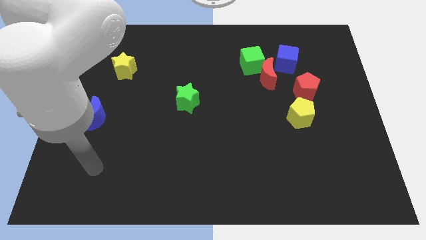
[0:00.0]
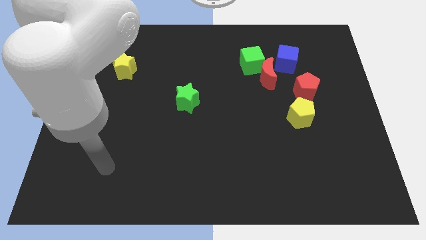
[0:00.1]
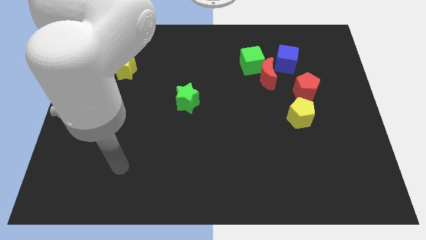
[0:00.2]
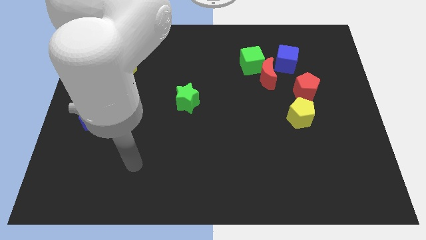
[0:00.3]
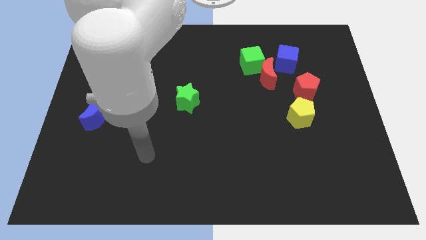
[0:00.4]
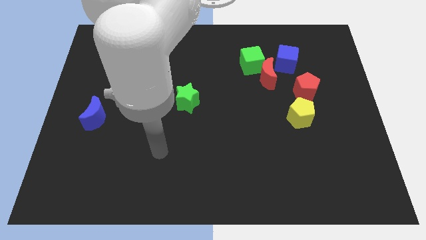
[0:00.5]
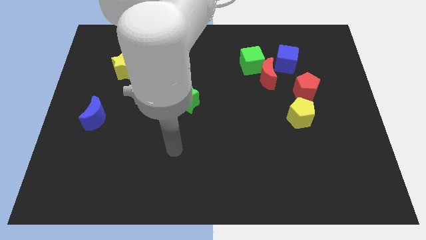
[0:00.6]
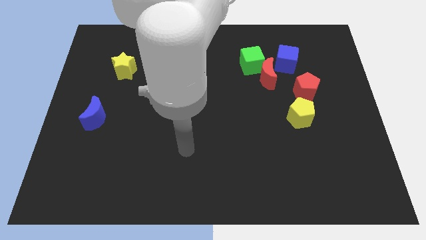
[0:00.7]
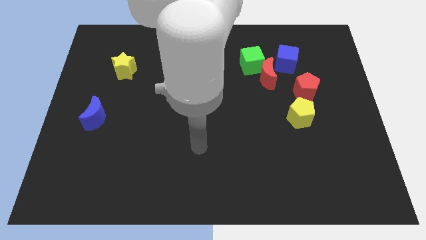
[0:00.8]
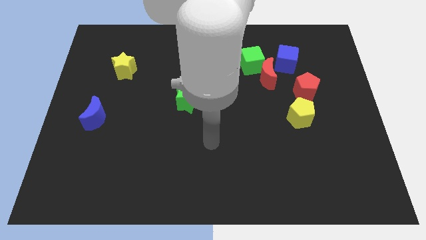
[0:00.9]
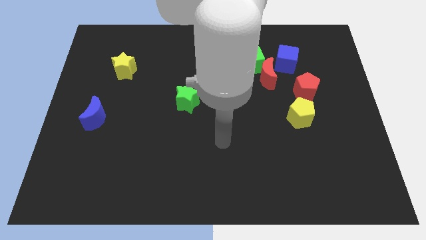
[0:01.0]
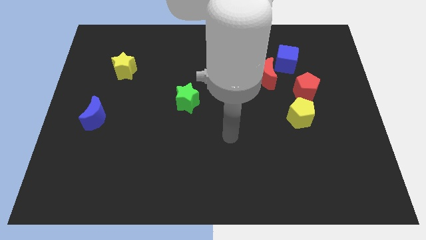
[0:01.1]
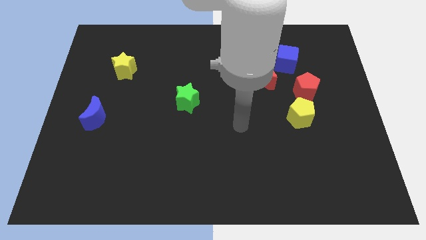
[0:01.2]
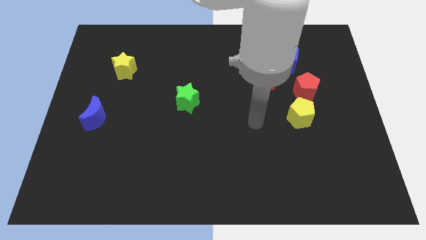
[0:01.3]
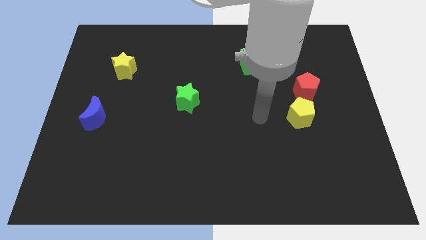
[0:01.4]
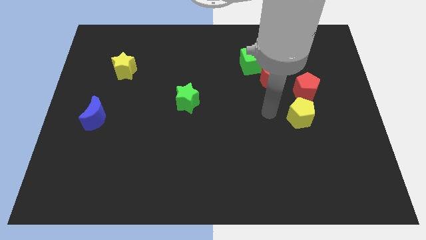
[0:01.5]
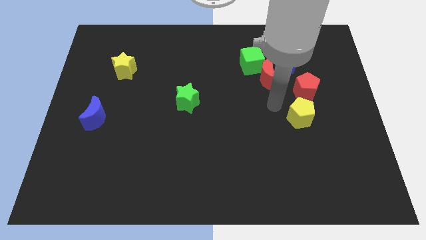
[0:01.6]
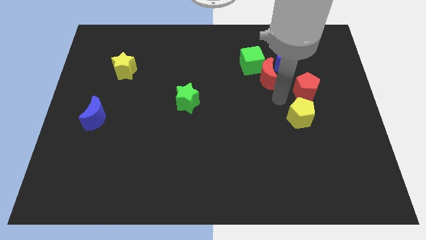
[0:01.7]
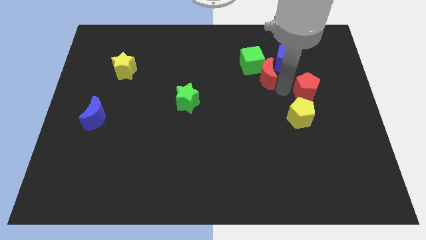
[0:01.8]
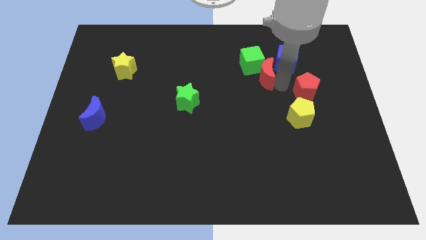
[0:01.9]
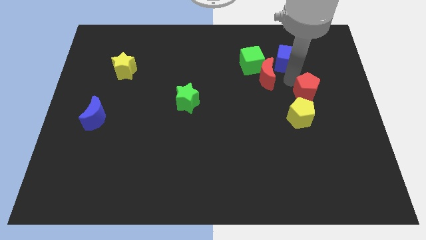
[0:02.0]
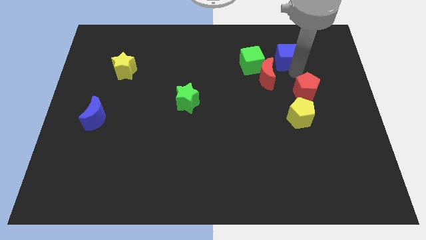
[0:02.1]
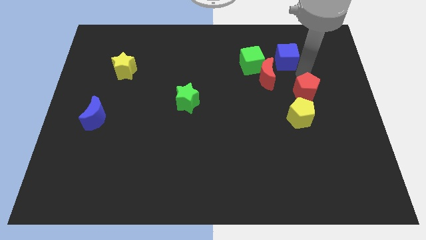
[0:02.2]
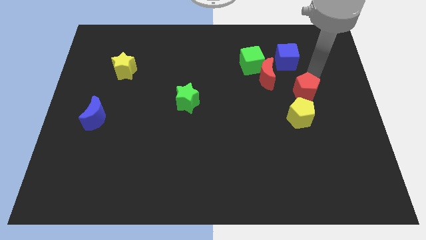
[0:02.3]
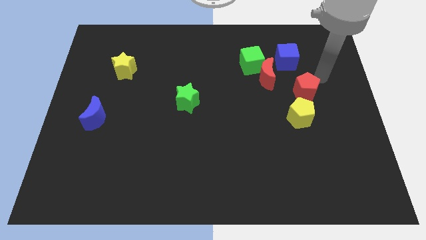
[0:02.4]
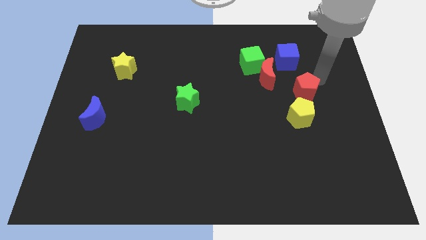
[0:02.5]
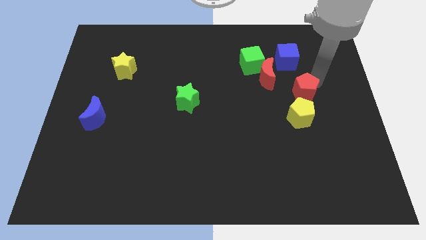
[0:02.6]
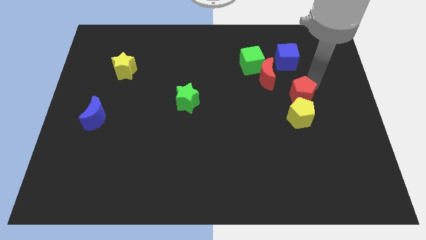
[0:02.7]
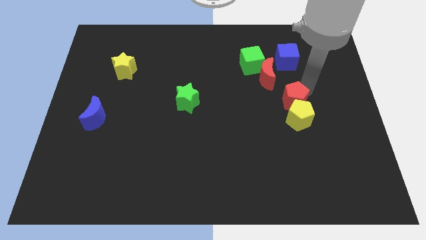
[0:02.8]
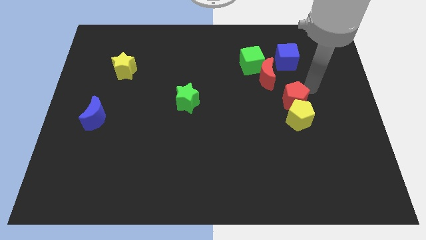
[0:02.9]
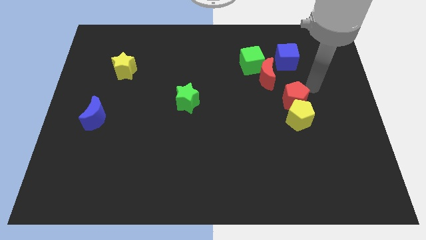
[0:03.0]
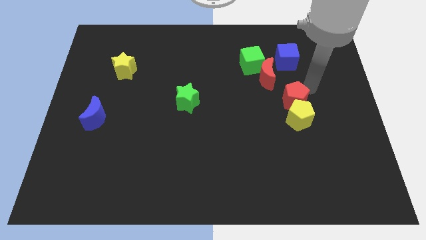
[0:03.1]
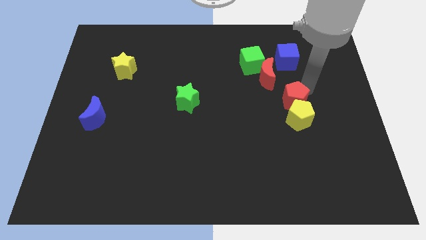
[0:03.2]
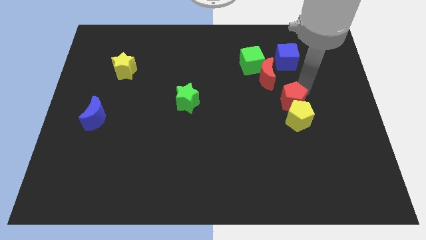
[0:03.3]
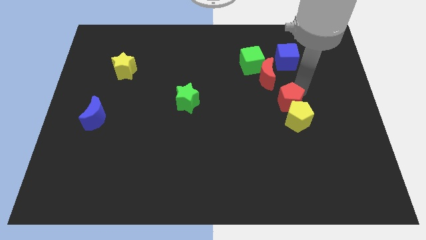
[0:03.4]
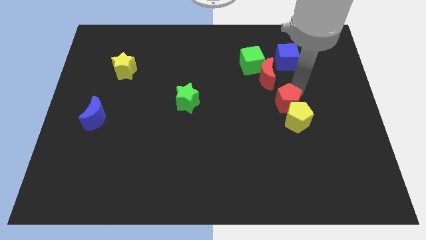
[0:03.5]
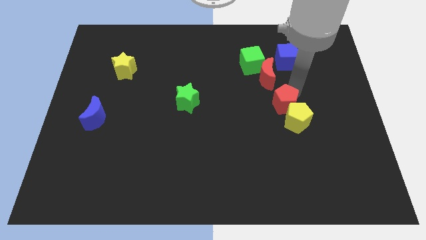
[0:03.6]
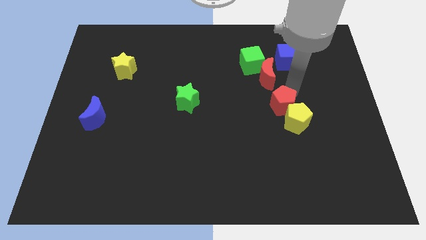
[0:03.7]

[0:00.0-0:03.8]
slightly slide the red pentagon down and left diagonally

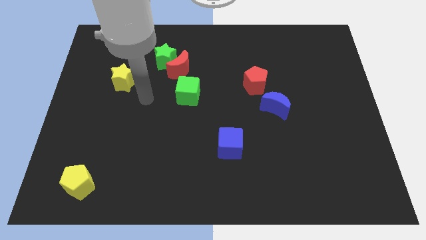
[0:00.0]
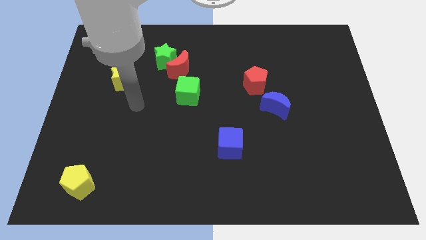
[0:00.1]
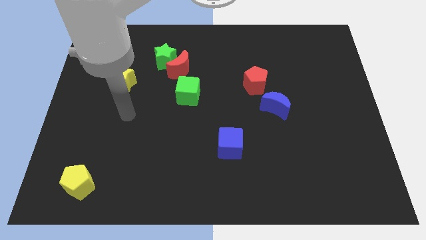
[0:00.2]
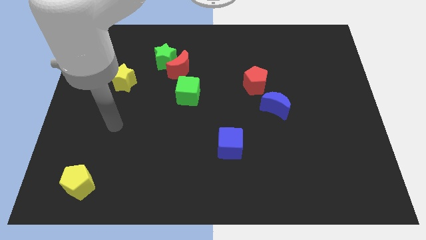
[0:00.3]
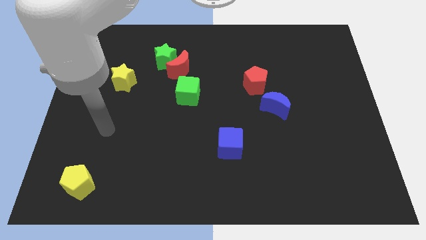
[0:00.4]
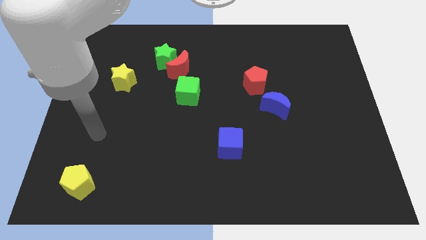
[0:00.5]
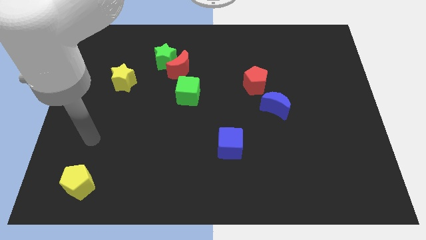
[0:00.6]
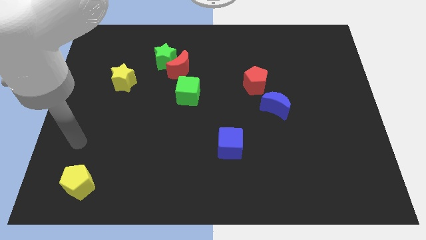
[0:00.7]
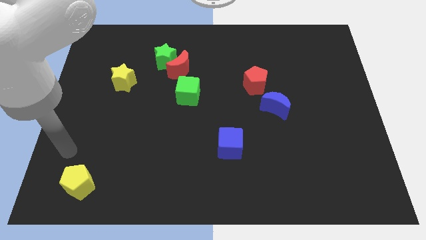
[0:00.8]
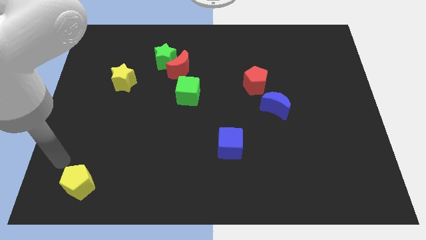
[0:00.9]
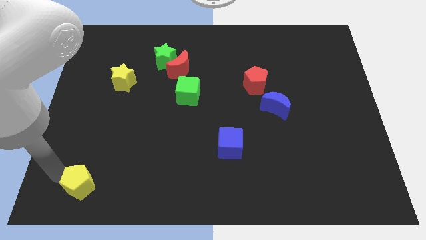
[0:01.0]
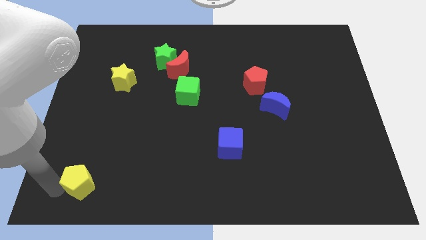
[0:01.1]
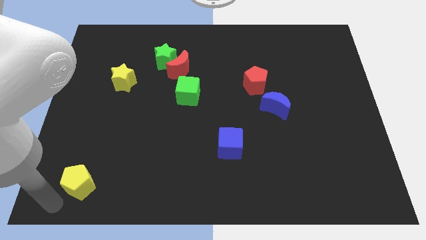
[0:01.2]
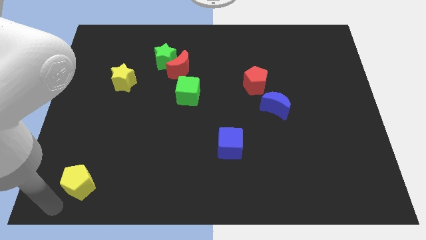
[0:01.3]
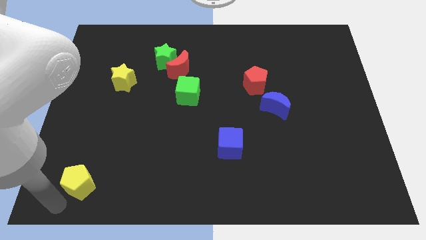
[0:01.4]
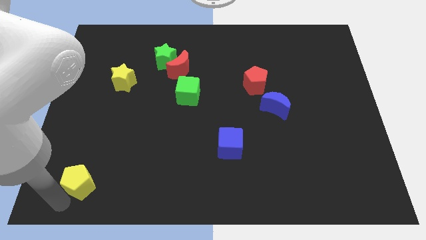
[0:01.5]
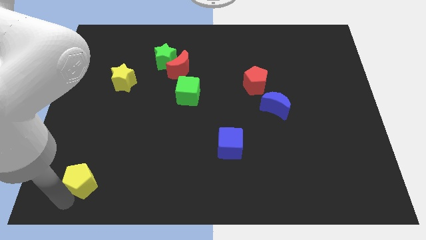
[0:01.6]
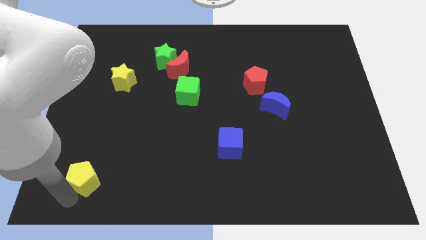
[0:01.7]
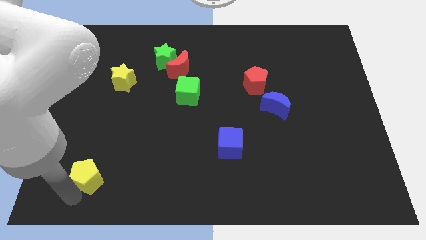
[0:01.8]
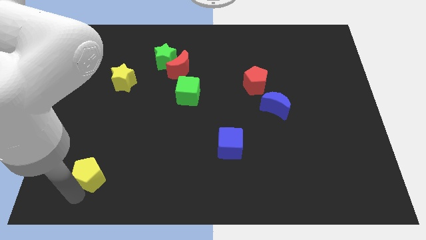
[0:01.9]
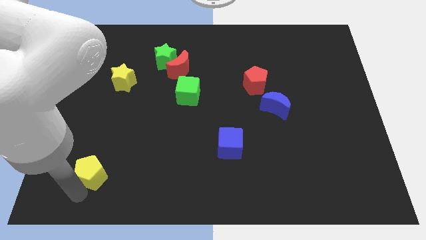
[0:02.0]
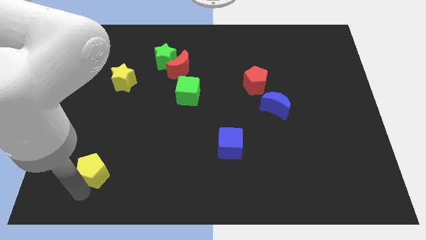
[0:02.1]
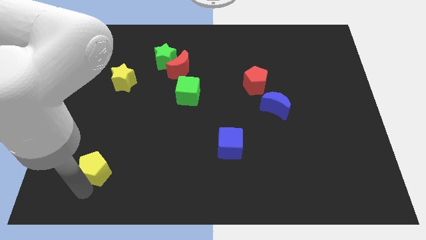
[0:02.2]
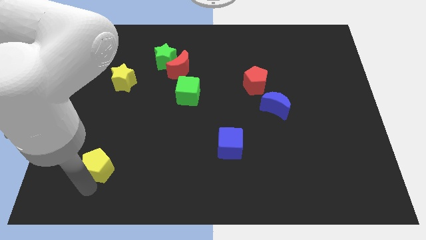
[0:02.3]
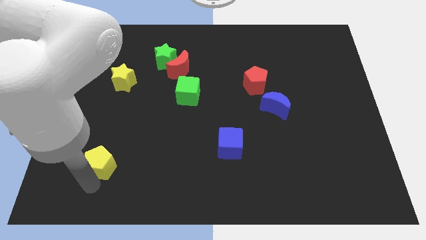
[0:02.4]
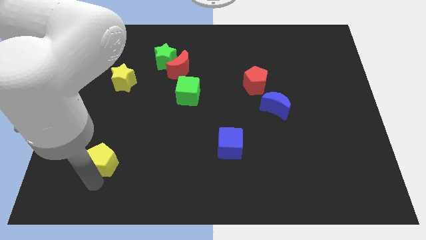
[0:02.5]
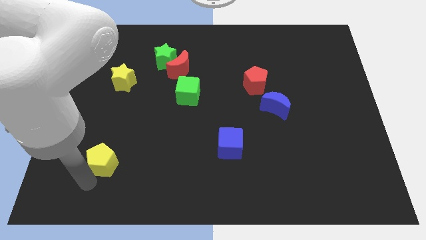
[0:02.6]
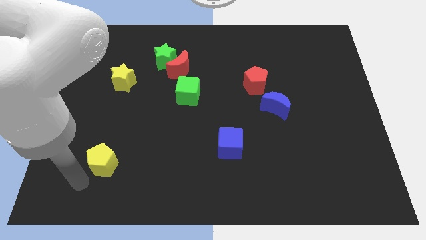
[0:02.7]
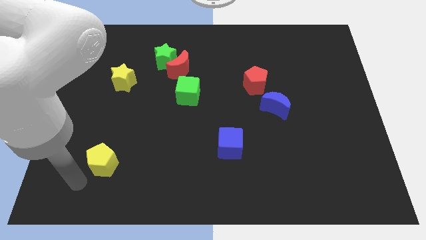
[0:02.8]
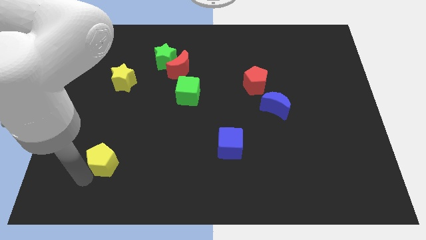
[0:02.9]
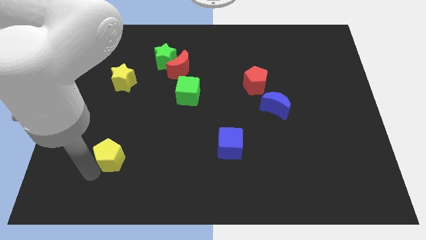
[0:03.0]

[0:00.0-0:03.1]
slightly move the yellow pentagon up and to the right diagonally

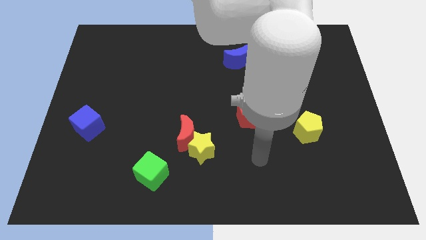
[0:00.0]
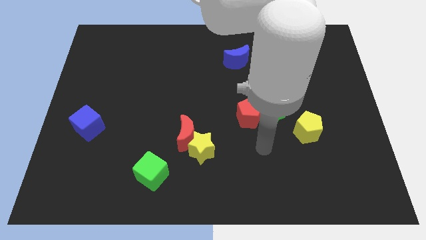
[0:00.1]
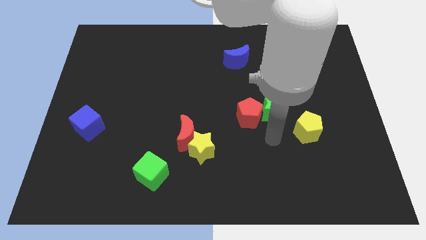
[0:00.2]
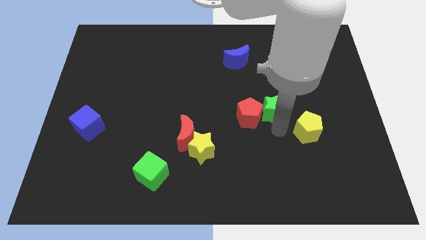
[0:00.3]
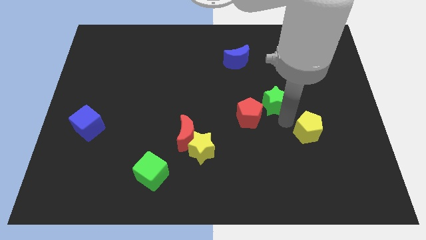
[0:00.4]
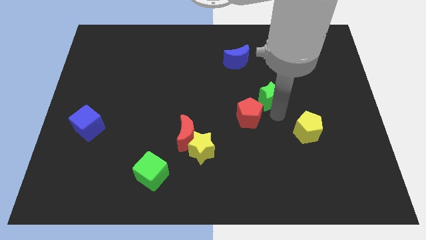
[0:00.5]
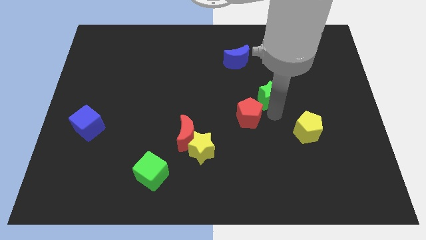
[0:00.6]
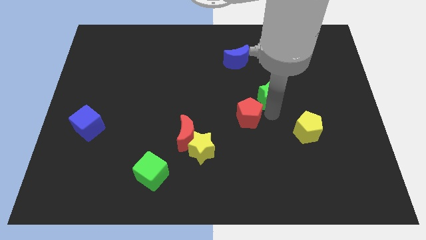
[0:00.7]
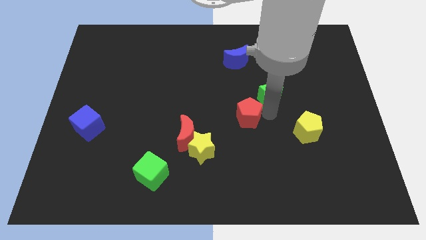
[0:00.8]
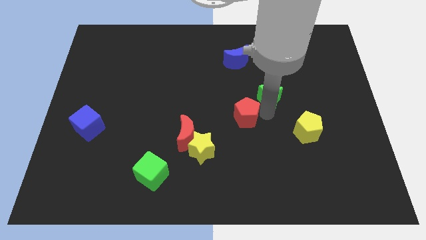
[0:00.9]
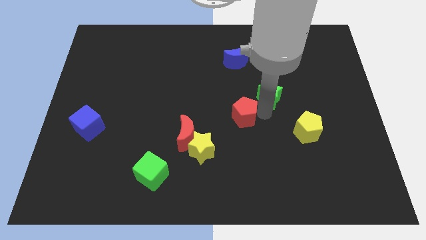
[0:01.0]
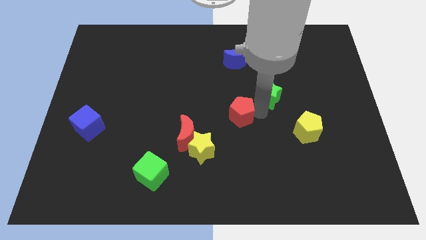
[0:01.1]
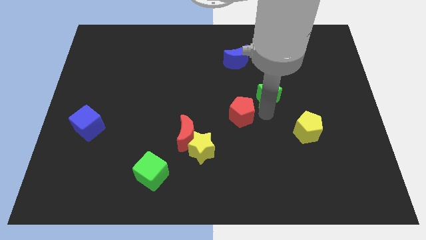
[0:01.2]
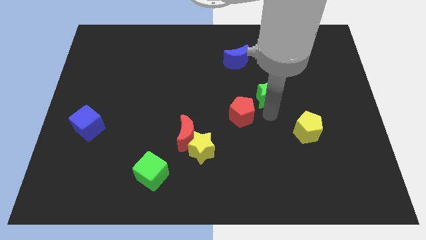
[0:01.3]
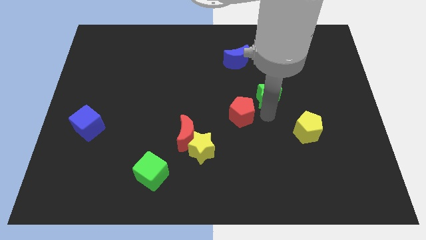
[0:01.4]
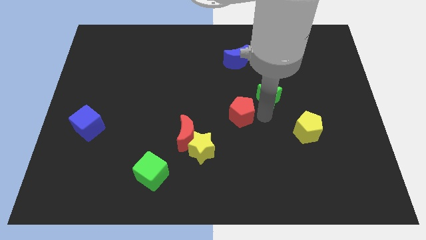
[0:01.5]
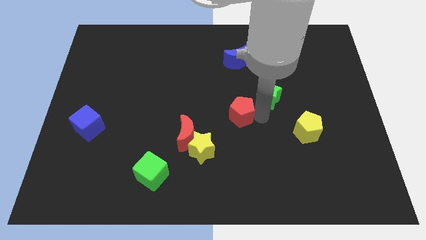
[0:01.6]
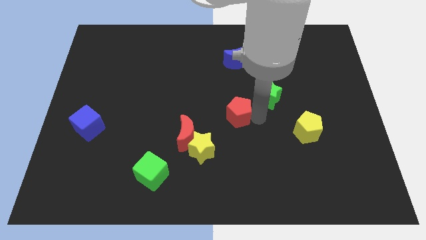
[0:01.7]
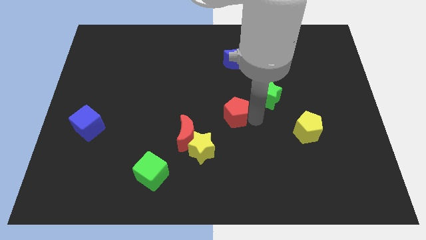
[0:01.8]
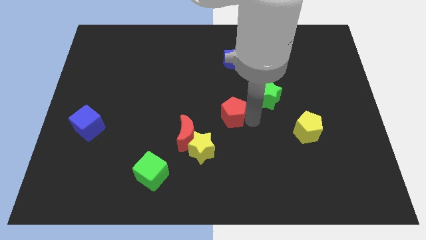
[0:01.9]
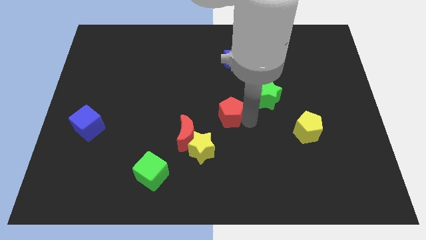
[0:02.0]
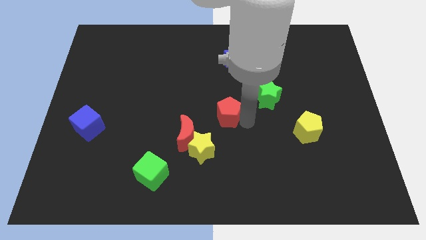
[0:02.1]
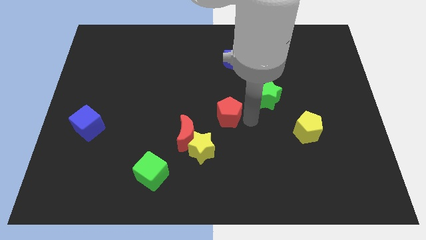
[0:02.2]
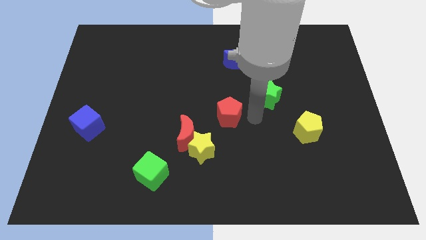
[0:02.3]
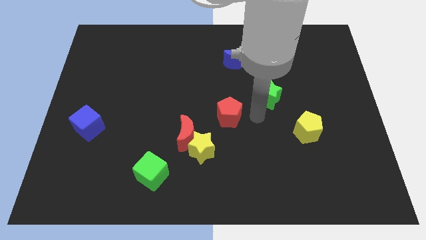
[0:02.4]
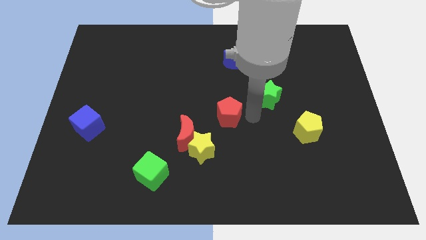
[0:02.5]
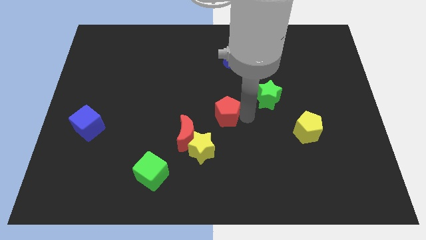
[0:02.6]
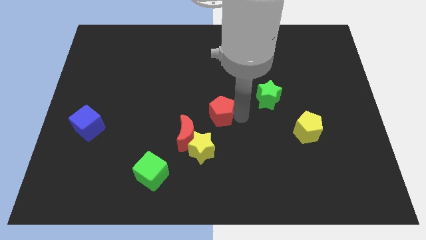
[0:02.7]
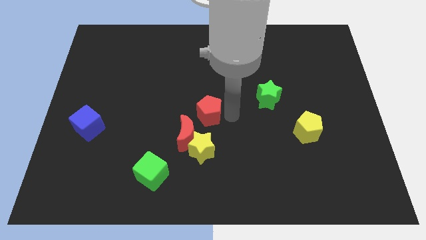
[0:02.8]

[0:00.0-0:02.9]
slightly move the red pentagon to the left
